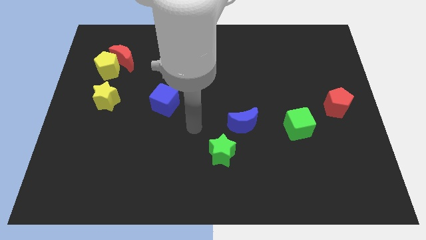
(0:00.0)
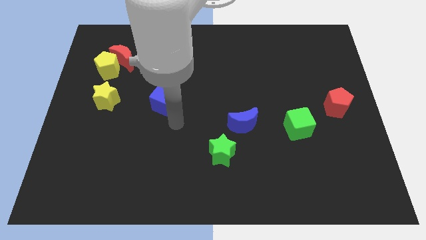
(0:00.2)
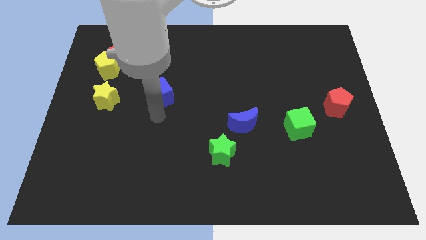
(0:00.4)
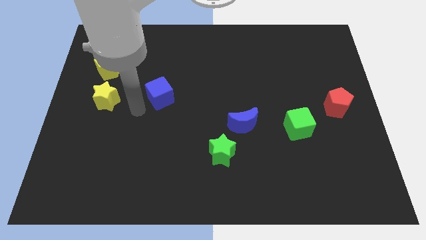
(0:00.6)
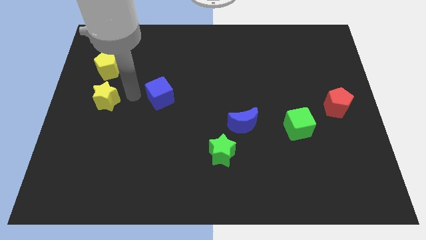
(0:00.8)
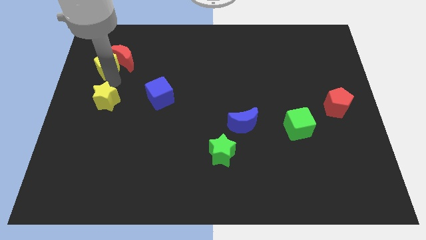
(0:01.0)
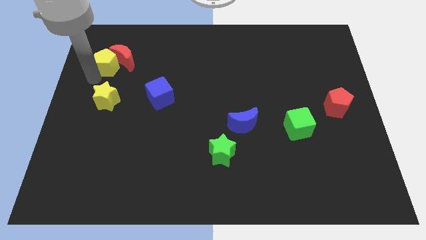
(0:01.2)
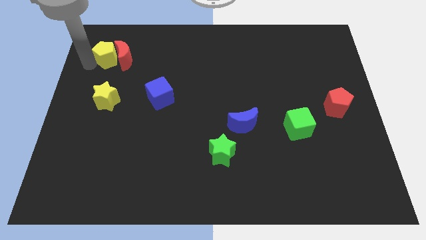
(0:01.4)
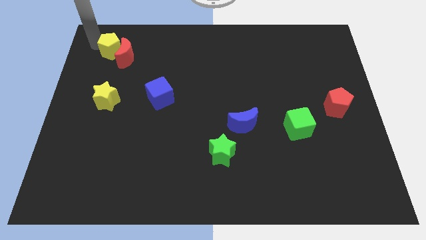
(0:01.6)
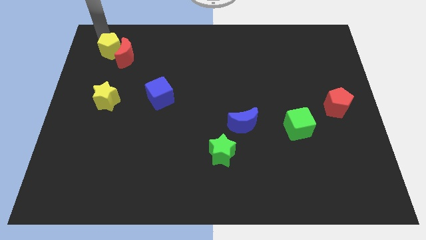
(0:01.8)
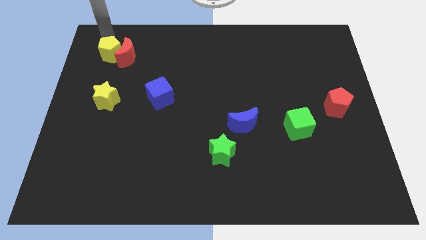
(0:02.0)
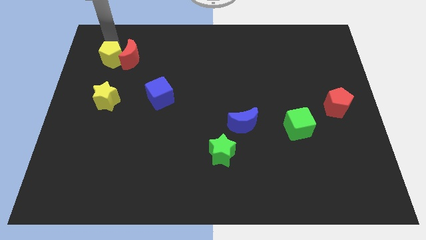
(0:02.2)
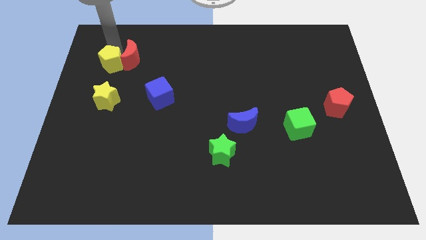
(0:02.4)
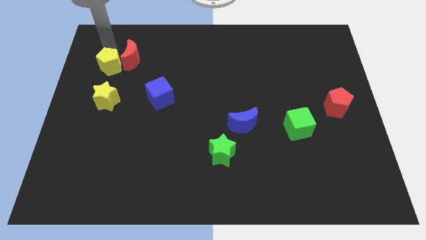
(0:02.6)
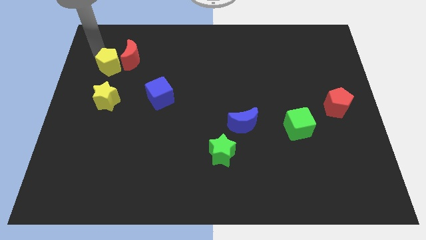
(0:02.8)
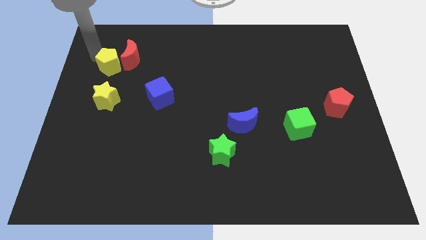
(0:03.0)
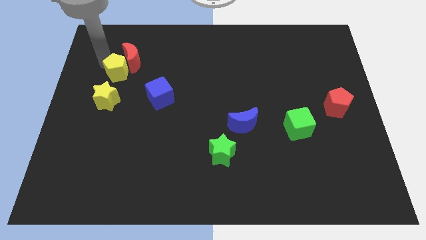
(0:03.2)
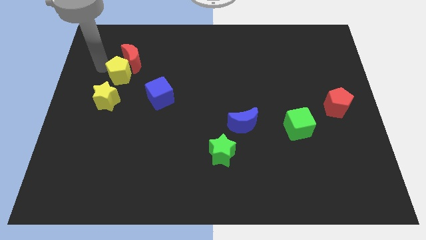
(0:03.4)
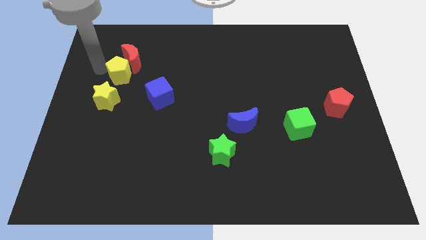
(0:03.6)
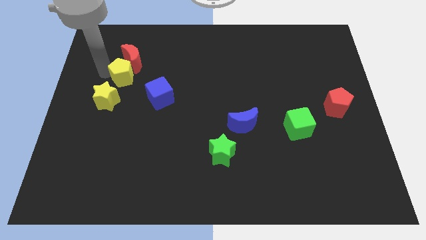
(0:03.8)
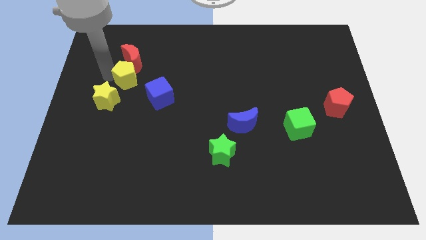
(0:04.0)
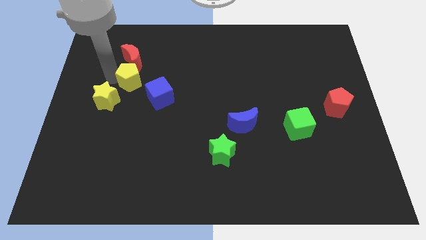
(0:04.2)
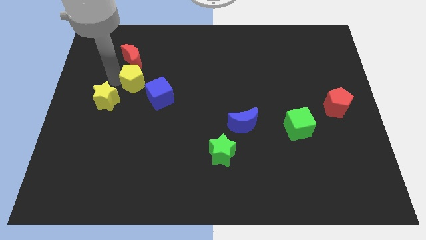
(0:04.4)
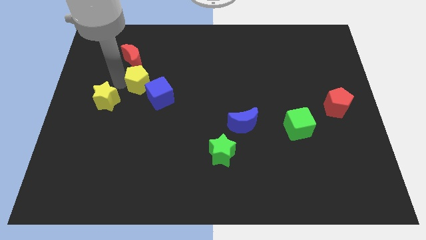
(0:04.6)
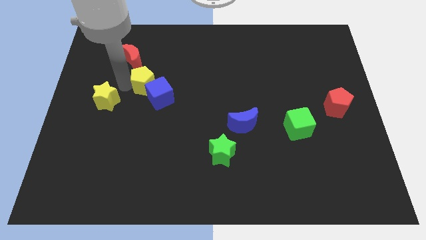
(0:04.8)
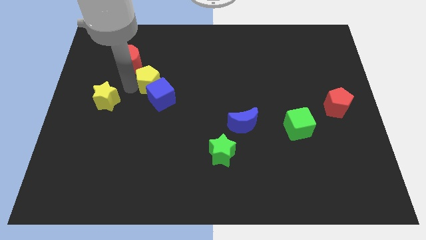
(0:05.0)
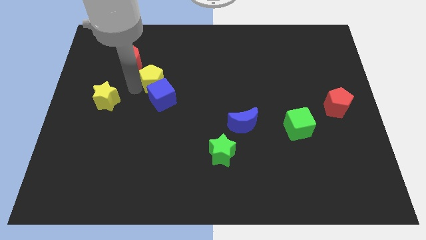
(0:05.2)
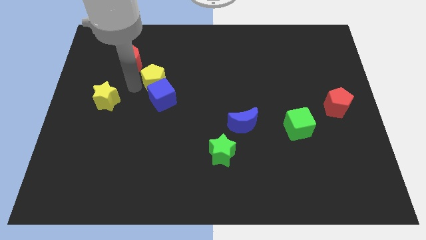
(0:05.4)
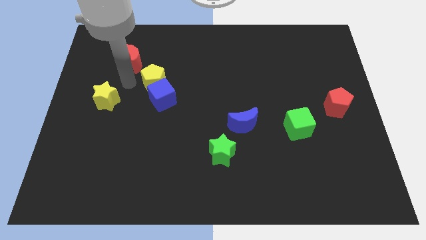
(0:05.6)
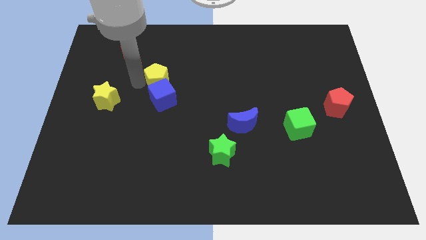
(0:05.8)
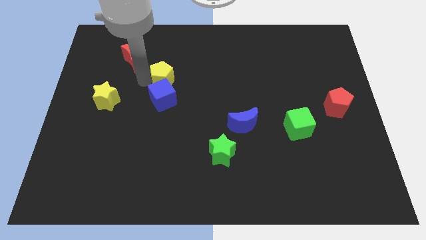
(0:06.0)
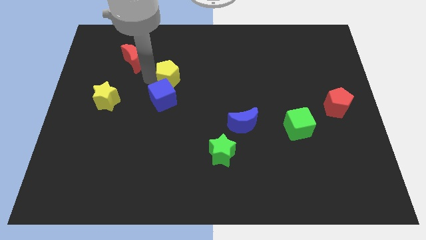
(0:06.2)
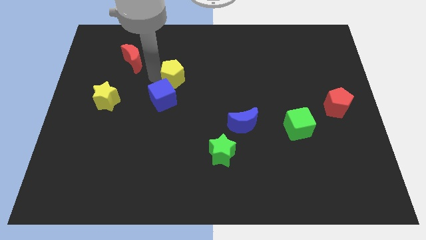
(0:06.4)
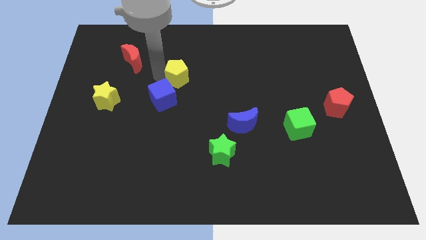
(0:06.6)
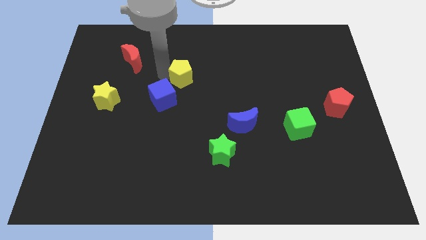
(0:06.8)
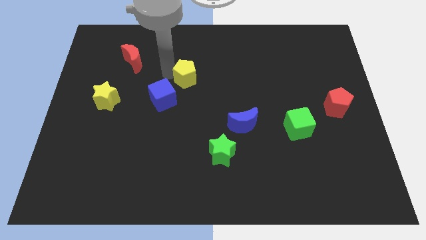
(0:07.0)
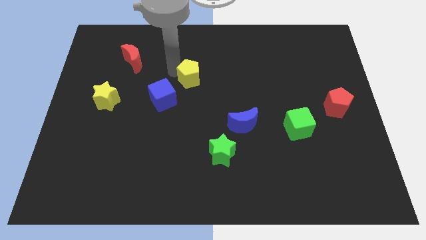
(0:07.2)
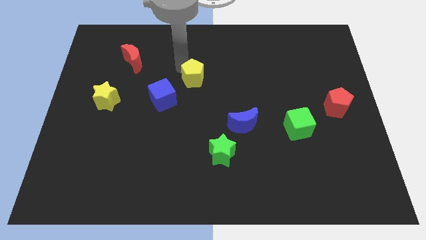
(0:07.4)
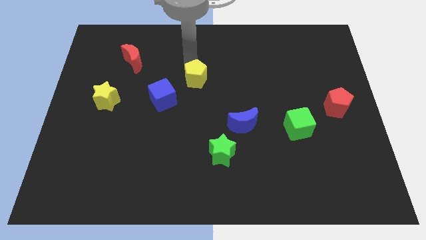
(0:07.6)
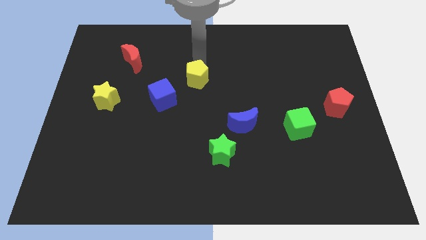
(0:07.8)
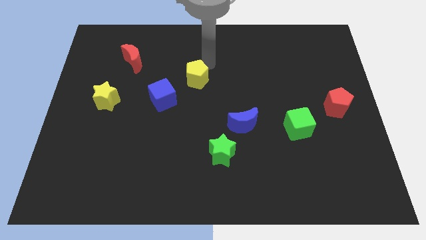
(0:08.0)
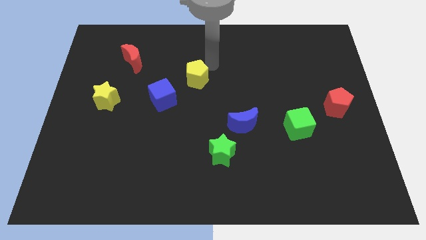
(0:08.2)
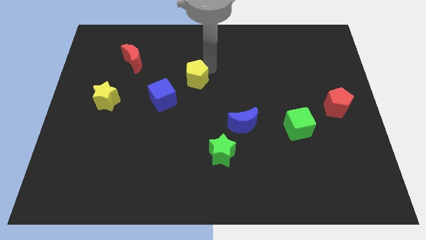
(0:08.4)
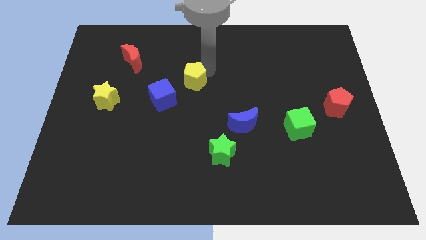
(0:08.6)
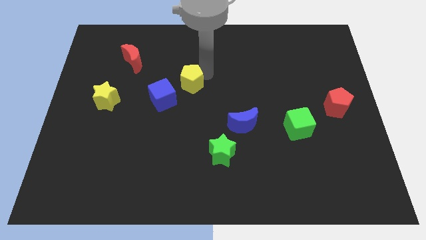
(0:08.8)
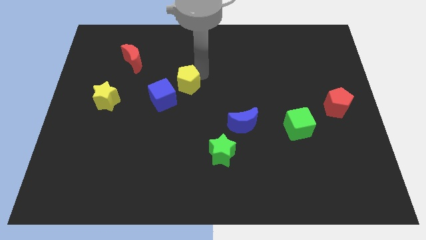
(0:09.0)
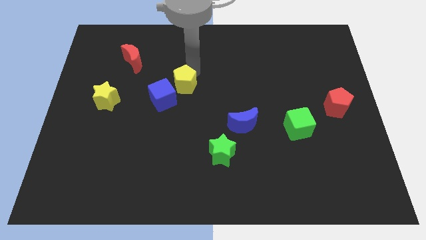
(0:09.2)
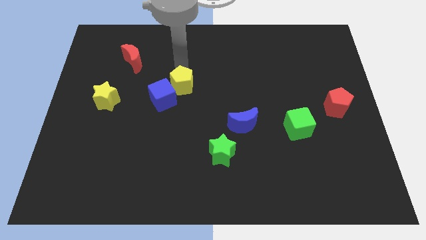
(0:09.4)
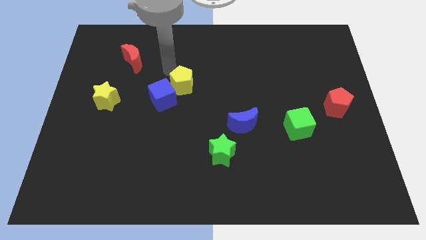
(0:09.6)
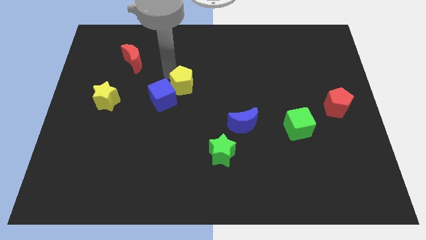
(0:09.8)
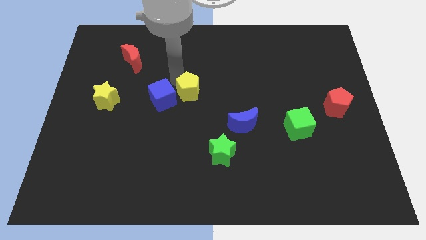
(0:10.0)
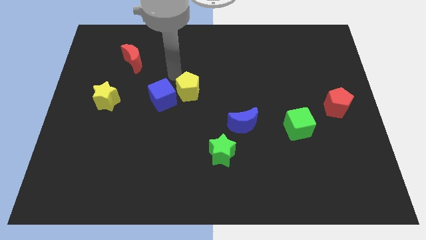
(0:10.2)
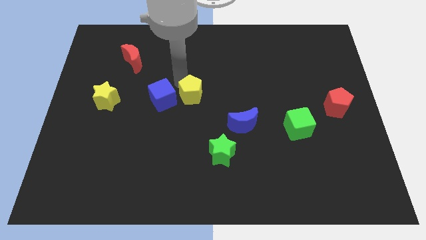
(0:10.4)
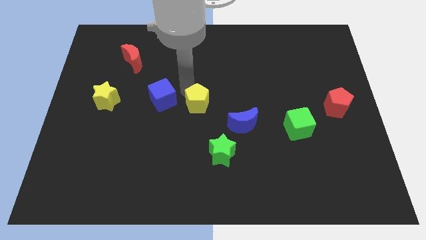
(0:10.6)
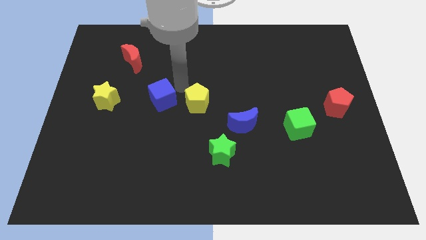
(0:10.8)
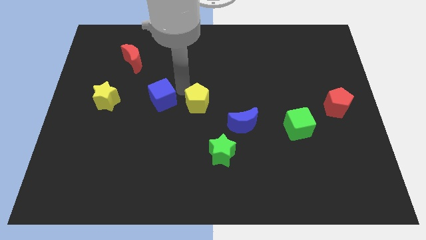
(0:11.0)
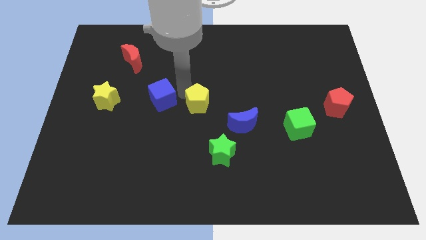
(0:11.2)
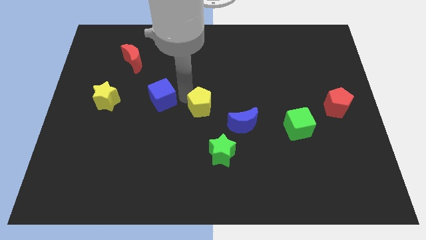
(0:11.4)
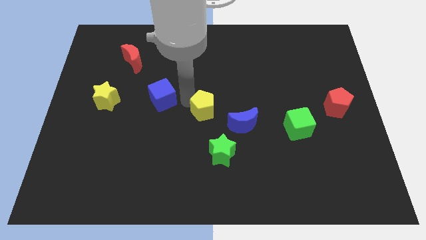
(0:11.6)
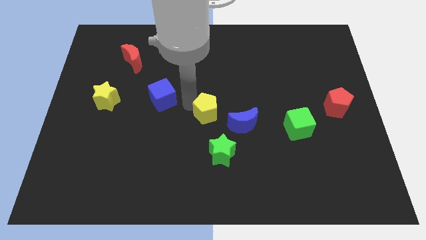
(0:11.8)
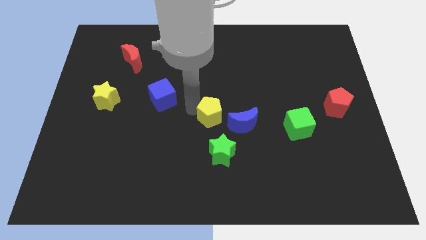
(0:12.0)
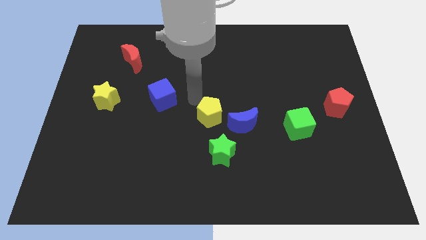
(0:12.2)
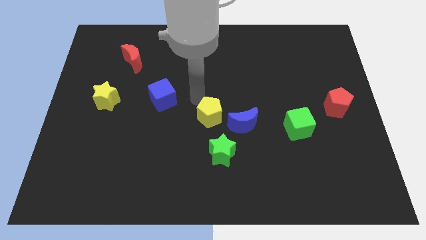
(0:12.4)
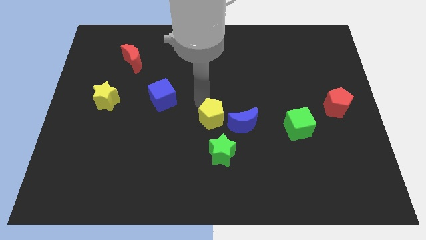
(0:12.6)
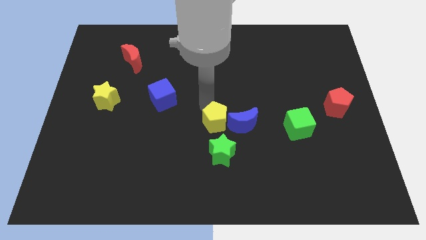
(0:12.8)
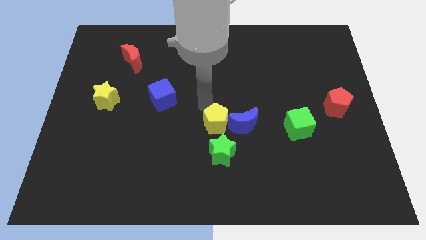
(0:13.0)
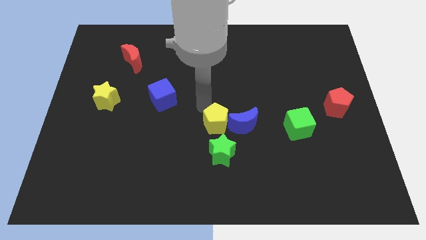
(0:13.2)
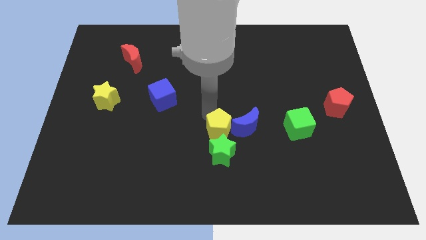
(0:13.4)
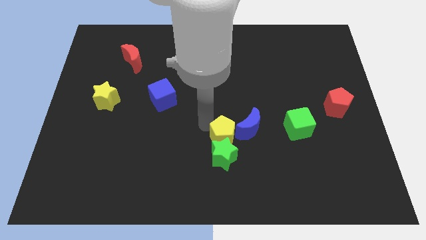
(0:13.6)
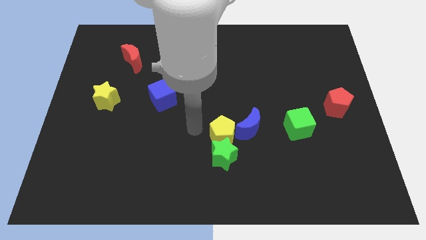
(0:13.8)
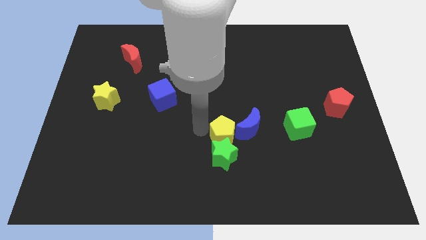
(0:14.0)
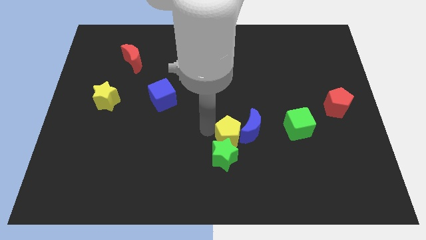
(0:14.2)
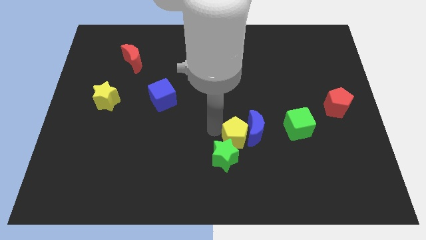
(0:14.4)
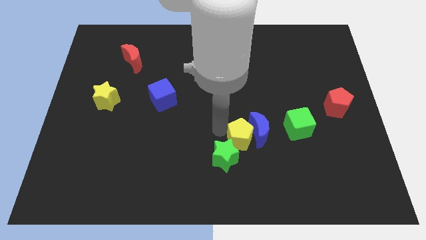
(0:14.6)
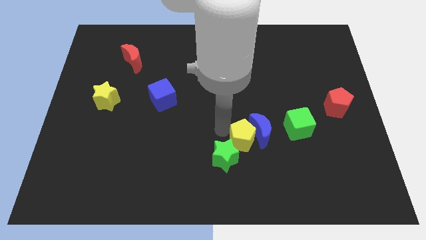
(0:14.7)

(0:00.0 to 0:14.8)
put the yellow pentagon to the right side of the green star
